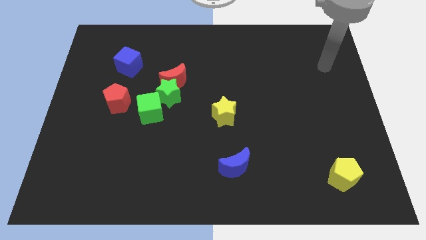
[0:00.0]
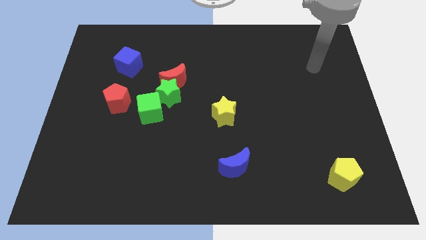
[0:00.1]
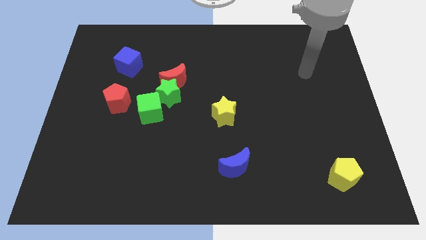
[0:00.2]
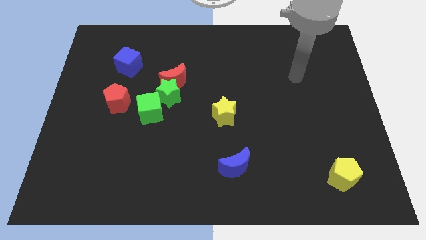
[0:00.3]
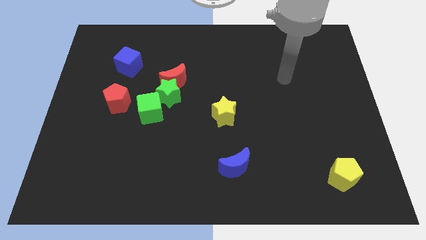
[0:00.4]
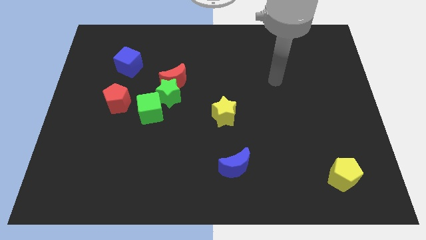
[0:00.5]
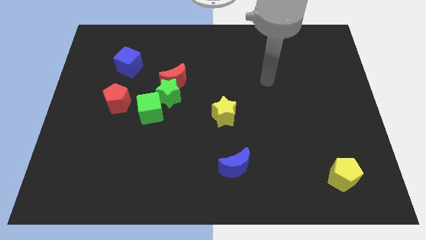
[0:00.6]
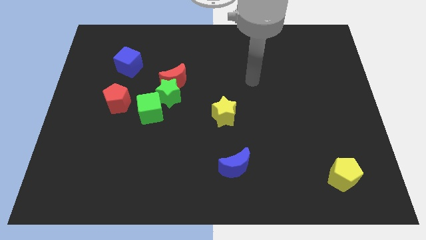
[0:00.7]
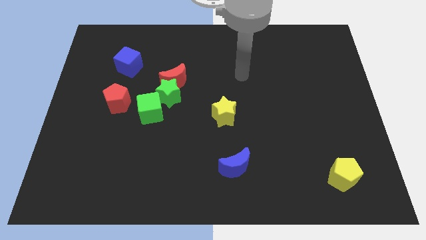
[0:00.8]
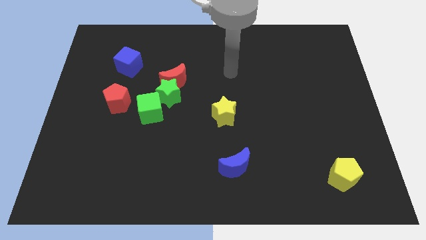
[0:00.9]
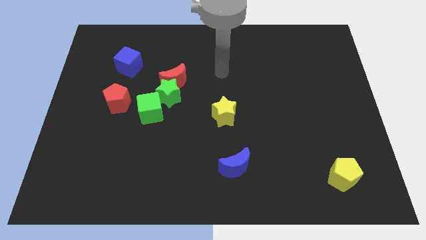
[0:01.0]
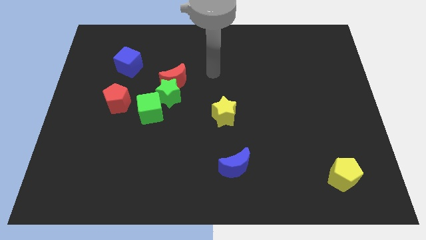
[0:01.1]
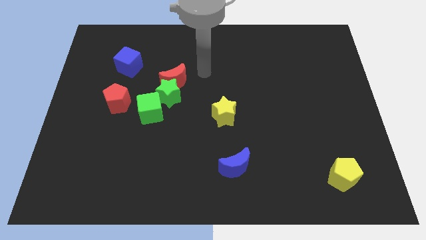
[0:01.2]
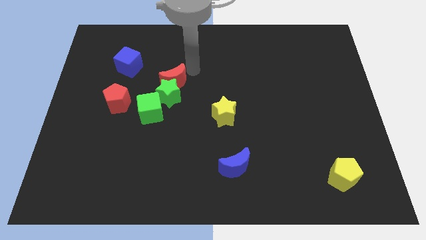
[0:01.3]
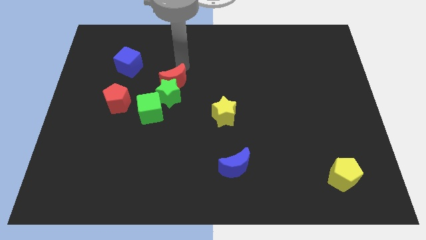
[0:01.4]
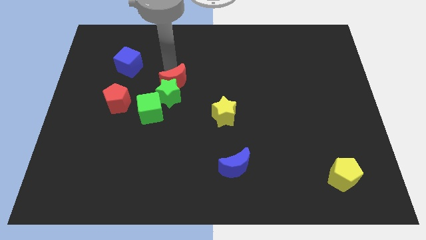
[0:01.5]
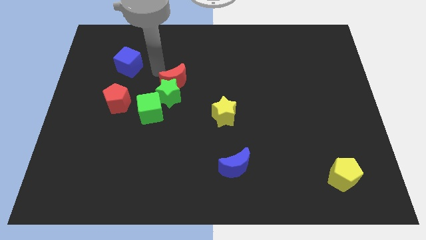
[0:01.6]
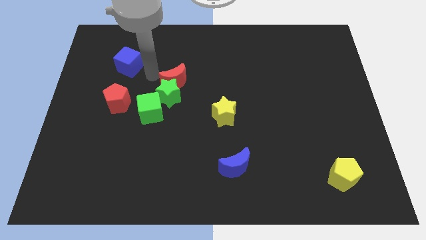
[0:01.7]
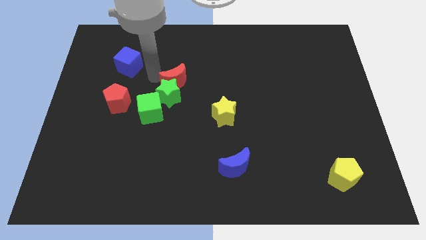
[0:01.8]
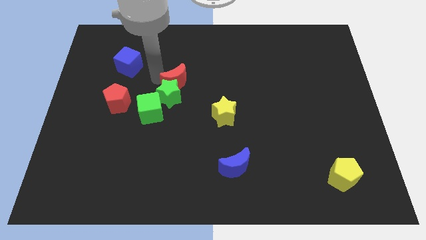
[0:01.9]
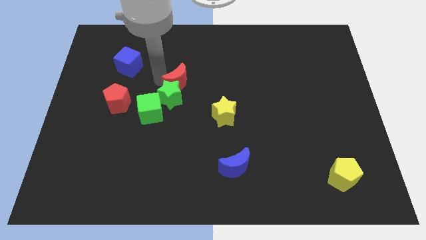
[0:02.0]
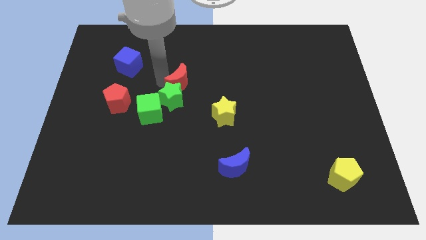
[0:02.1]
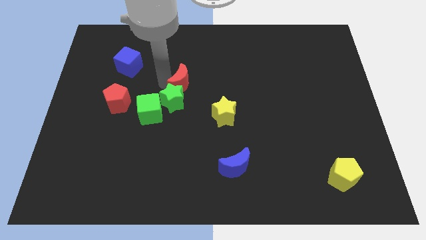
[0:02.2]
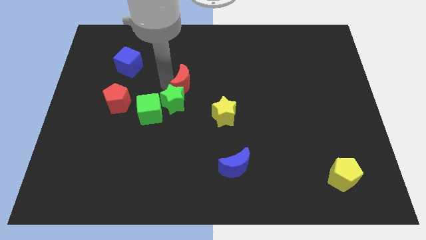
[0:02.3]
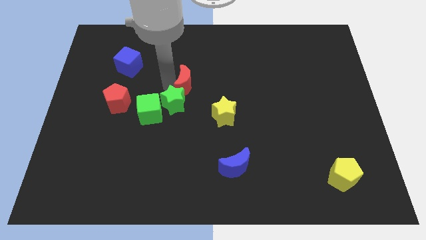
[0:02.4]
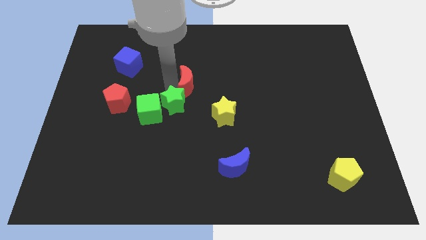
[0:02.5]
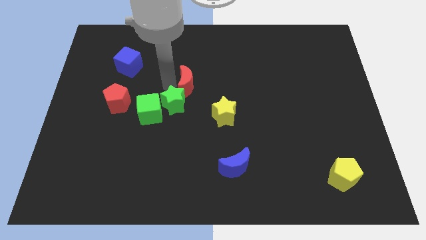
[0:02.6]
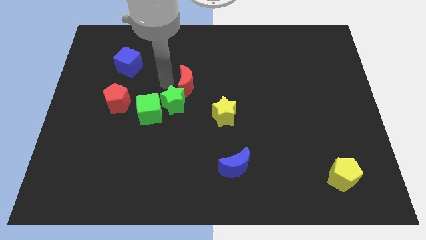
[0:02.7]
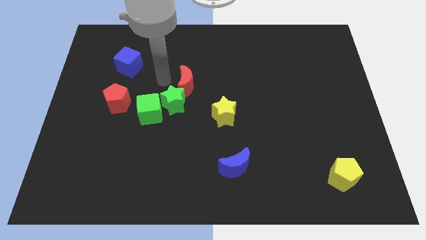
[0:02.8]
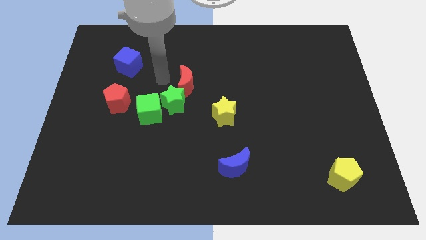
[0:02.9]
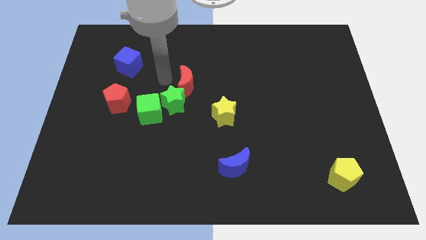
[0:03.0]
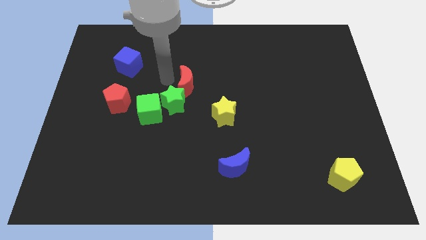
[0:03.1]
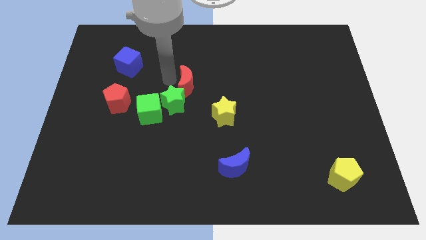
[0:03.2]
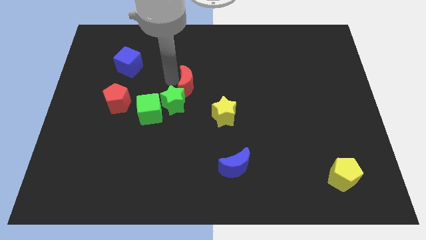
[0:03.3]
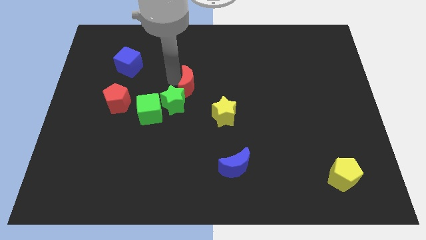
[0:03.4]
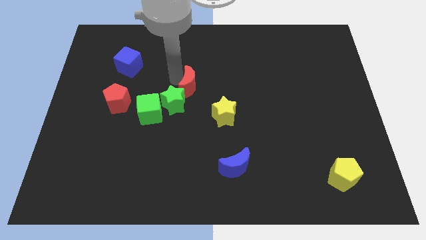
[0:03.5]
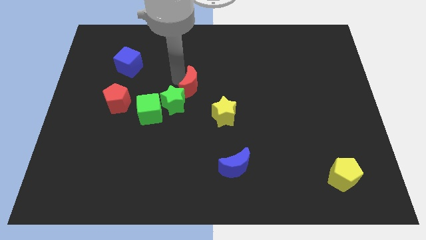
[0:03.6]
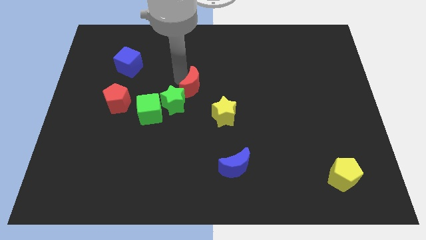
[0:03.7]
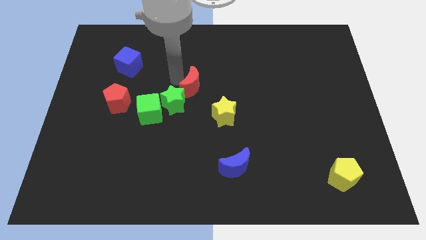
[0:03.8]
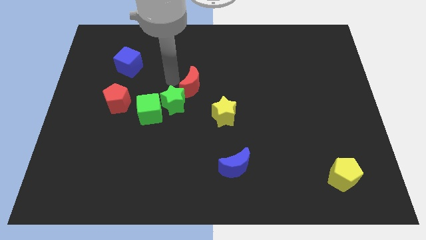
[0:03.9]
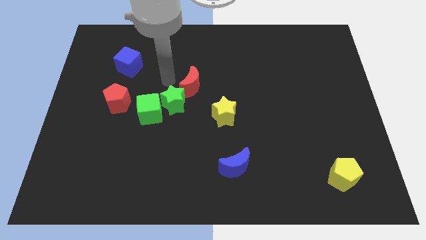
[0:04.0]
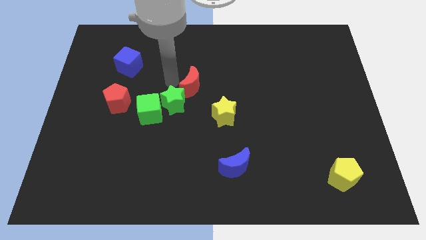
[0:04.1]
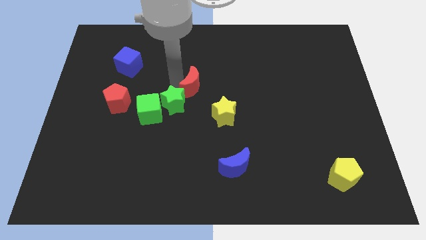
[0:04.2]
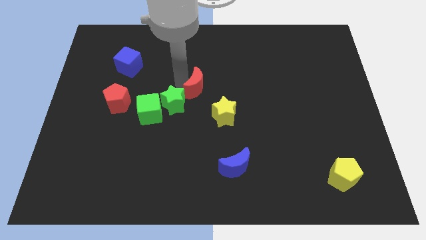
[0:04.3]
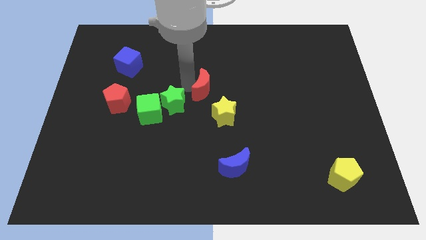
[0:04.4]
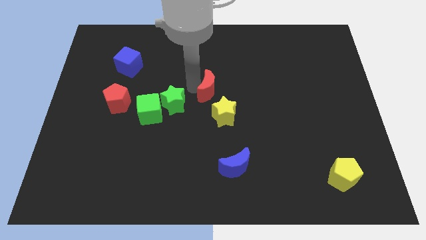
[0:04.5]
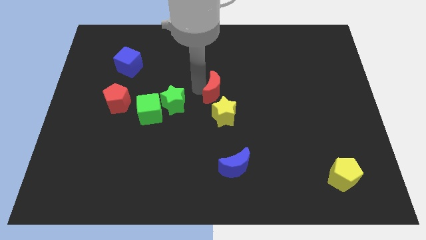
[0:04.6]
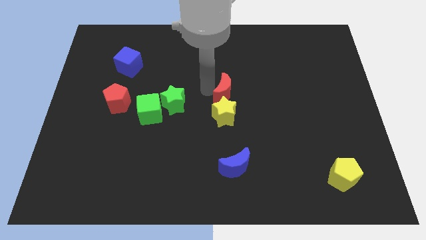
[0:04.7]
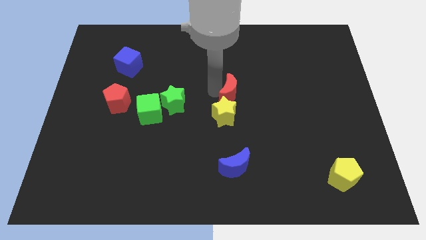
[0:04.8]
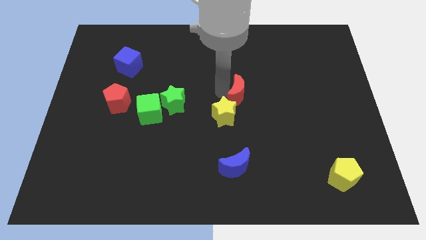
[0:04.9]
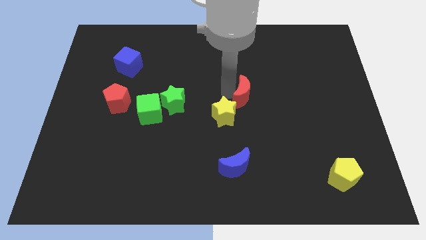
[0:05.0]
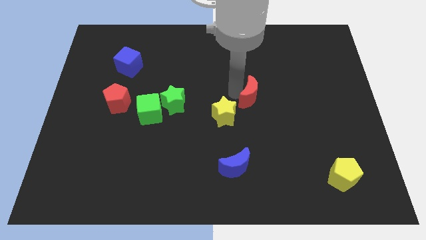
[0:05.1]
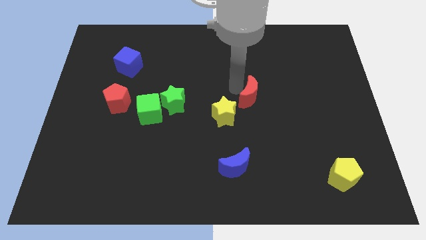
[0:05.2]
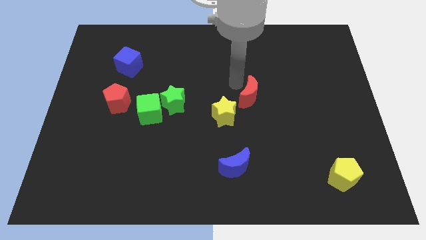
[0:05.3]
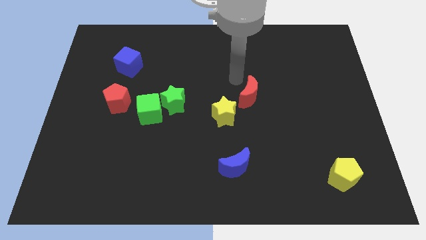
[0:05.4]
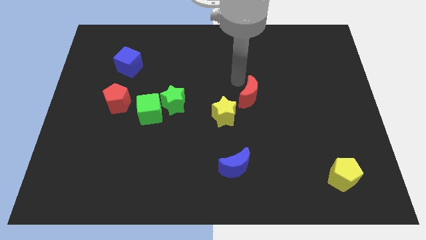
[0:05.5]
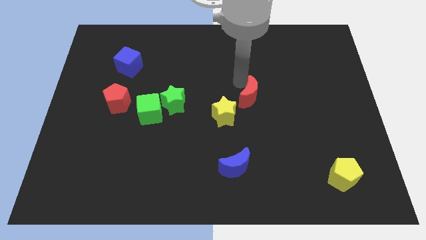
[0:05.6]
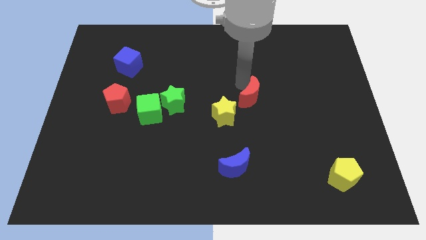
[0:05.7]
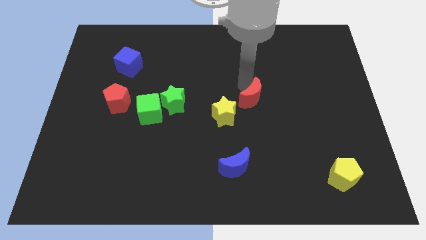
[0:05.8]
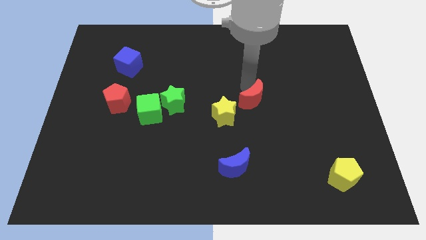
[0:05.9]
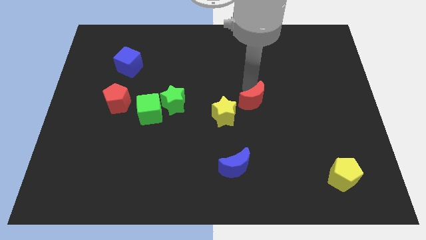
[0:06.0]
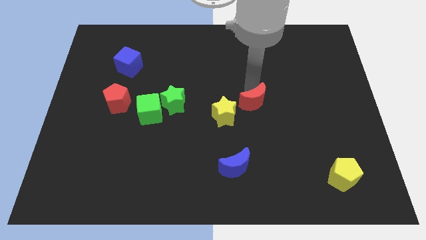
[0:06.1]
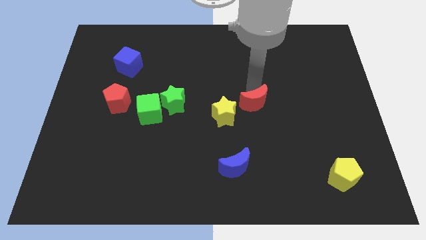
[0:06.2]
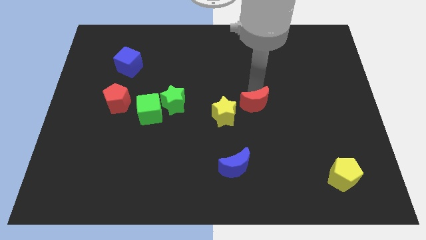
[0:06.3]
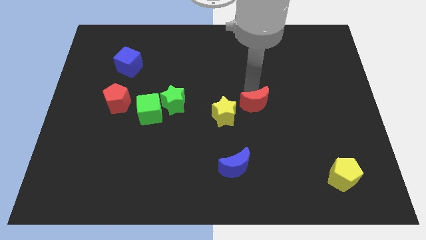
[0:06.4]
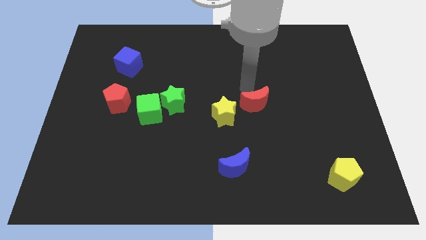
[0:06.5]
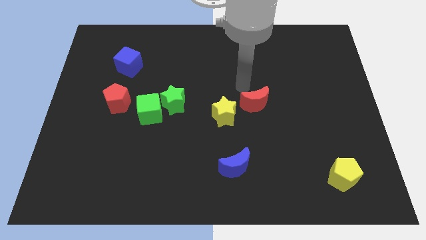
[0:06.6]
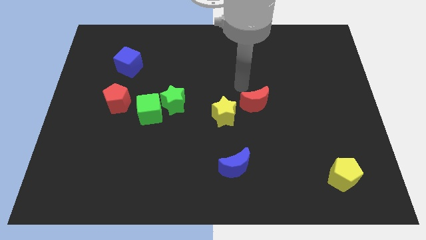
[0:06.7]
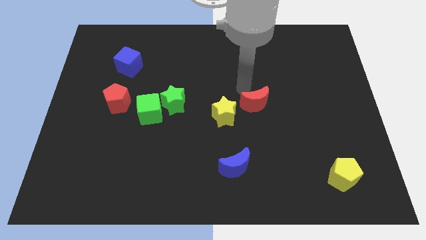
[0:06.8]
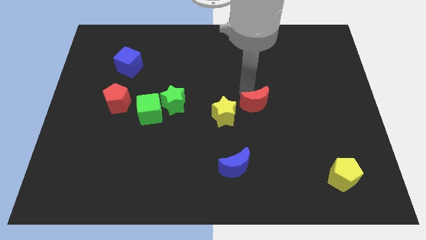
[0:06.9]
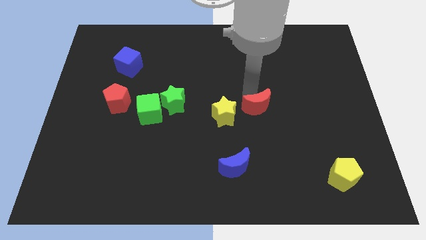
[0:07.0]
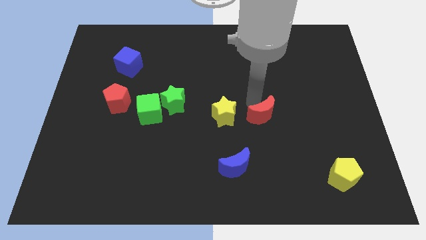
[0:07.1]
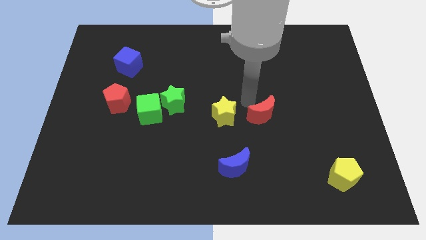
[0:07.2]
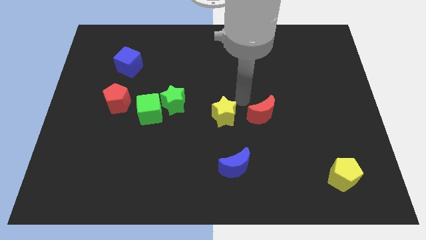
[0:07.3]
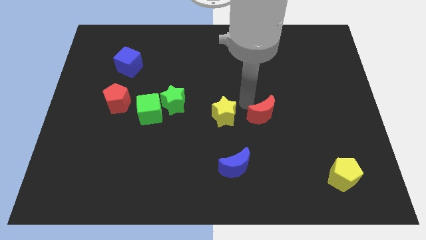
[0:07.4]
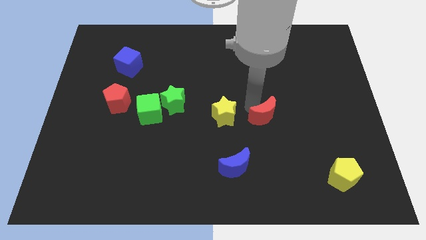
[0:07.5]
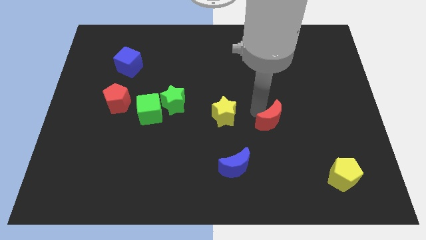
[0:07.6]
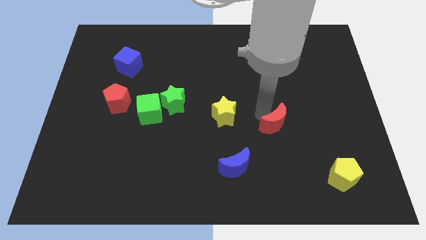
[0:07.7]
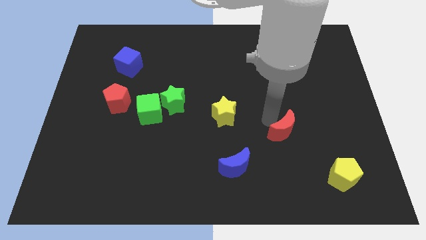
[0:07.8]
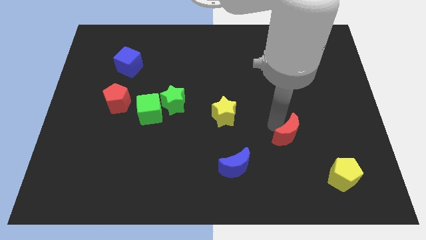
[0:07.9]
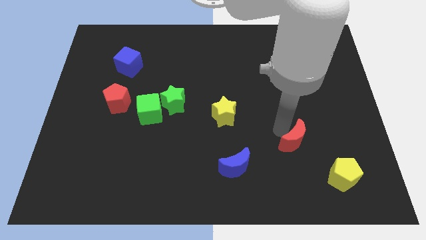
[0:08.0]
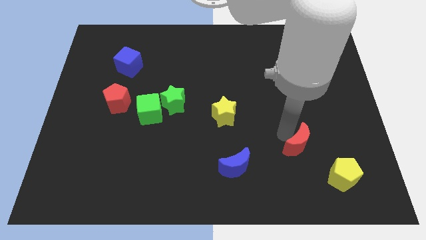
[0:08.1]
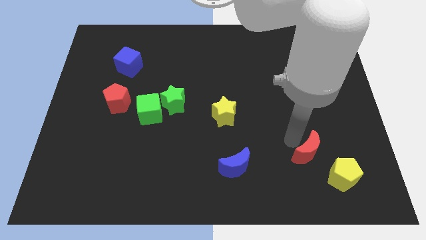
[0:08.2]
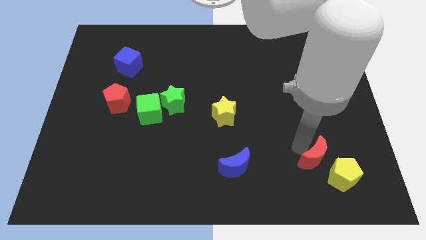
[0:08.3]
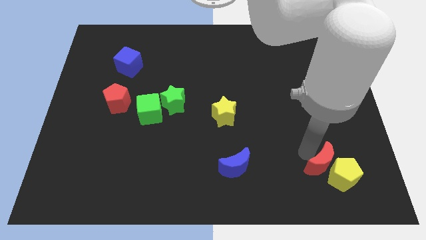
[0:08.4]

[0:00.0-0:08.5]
move the red moon close to the yellow pentagon
